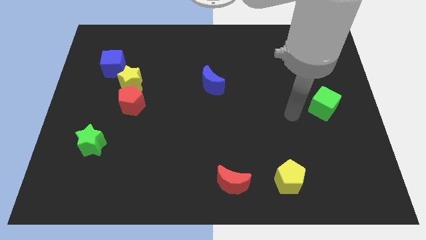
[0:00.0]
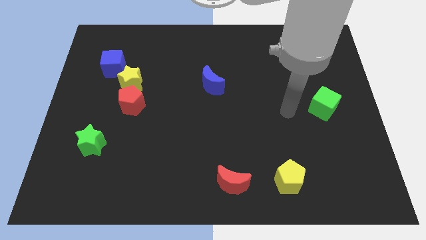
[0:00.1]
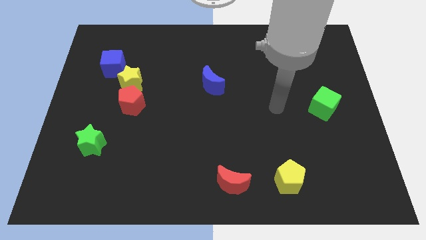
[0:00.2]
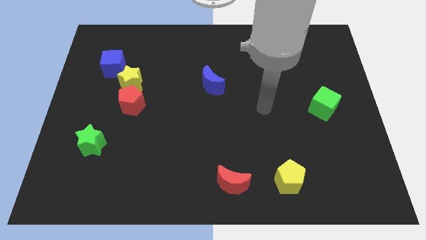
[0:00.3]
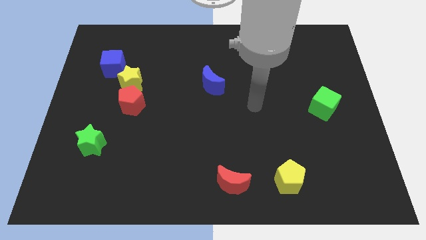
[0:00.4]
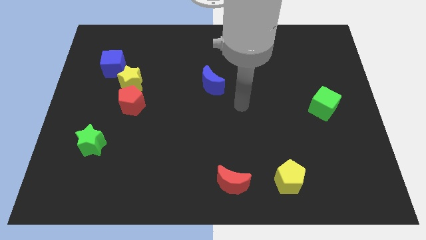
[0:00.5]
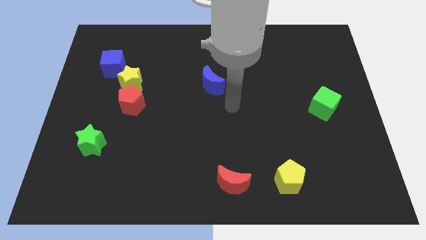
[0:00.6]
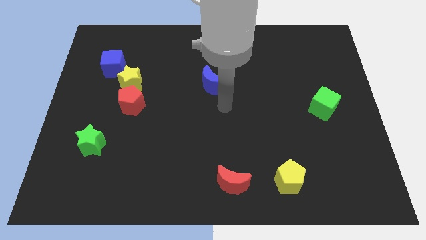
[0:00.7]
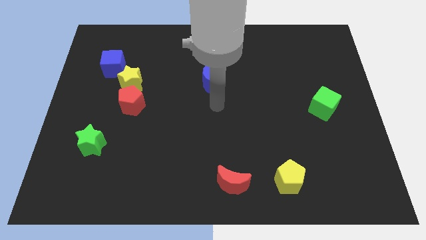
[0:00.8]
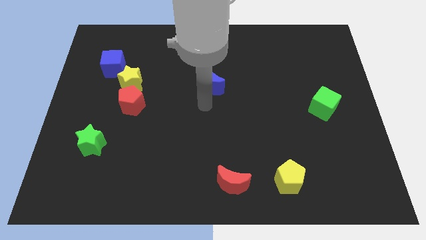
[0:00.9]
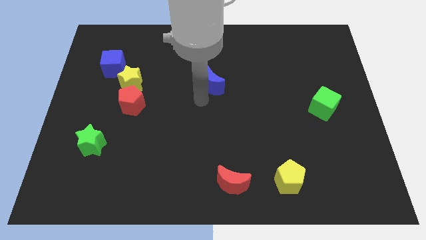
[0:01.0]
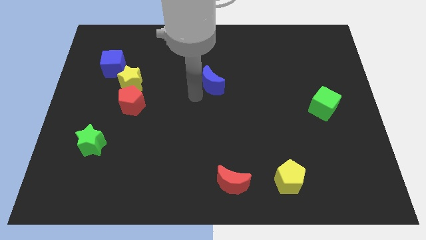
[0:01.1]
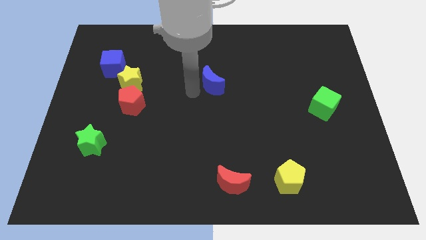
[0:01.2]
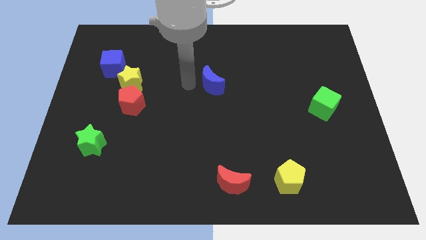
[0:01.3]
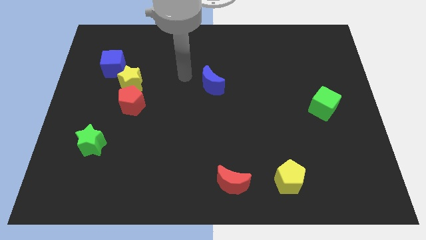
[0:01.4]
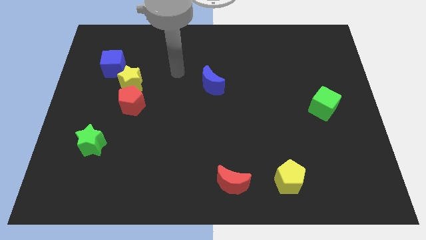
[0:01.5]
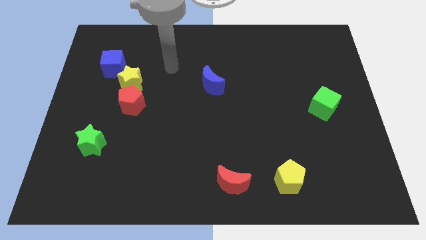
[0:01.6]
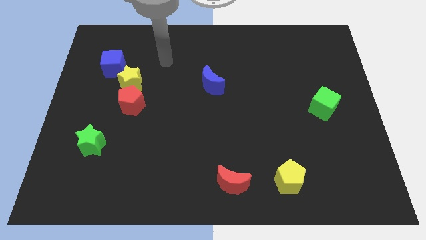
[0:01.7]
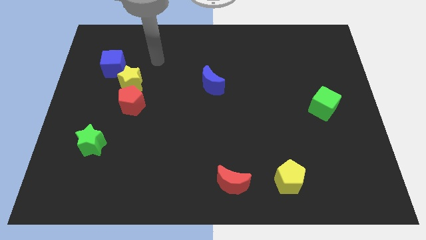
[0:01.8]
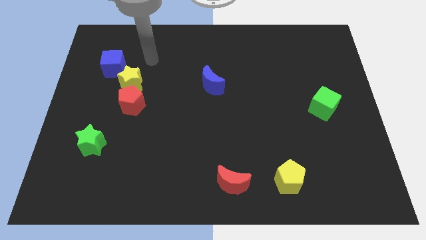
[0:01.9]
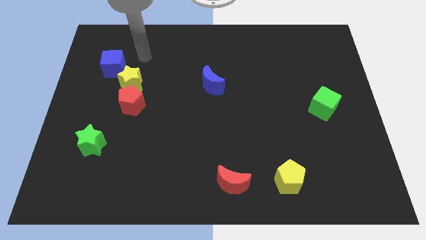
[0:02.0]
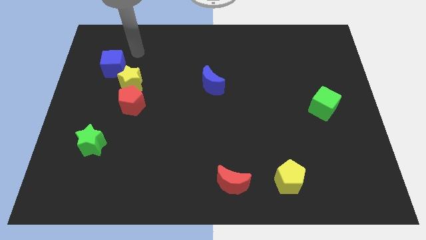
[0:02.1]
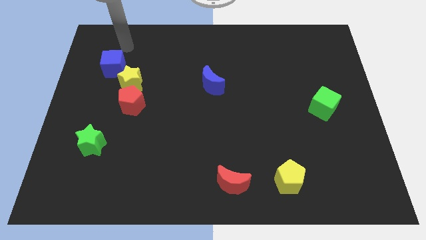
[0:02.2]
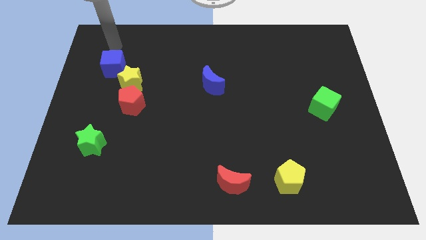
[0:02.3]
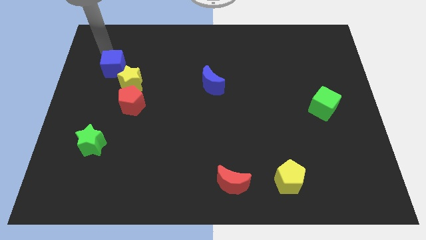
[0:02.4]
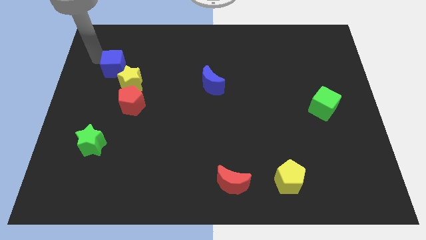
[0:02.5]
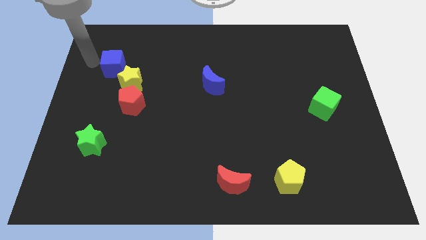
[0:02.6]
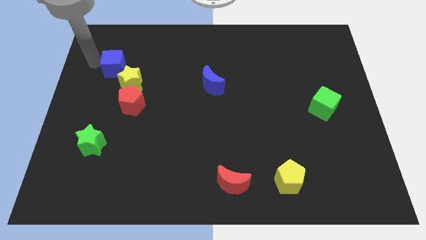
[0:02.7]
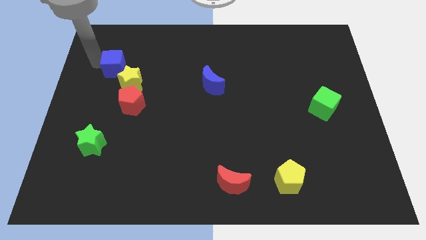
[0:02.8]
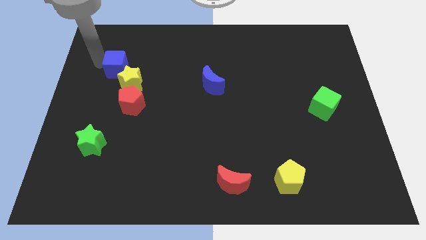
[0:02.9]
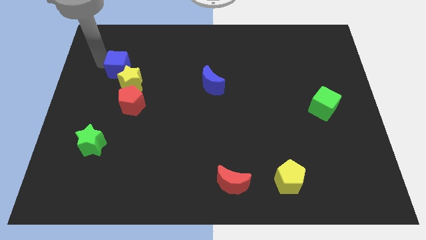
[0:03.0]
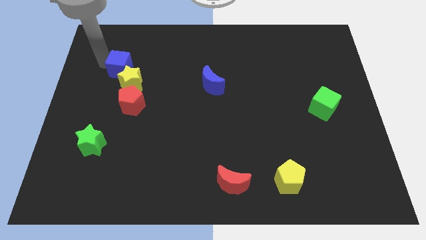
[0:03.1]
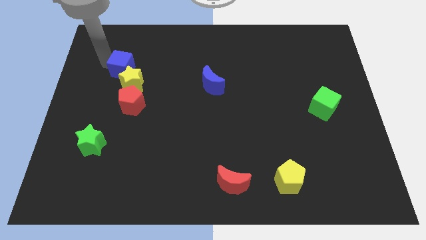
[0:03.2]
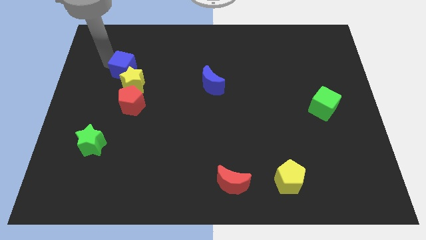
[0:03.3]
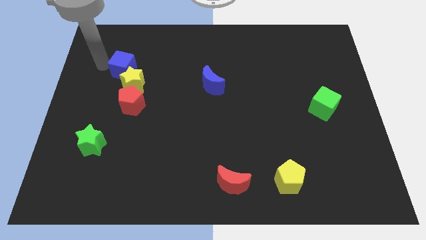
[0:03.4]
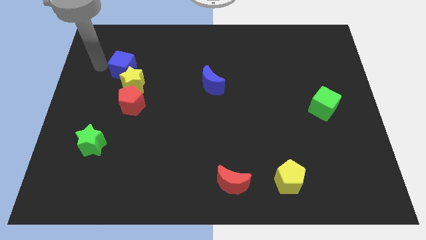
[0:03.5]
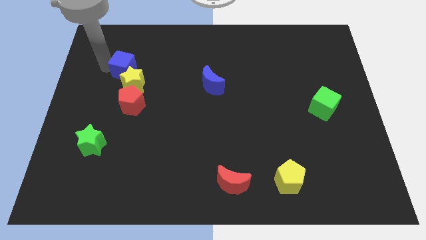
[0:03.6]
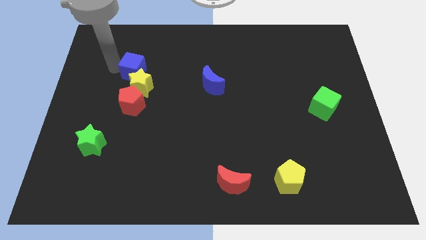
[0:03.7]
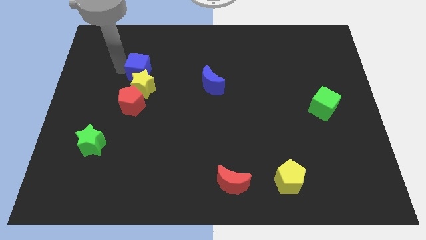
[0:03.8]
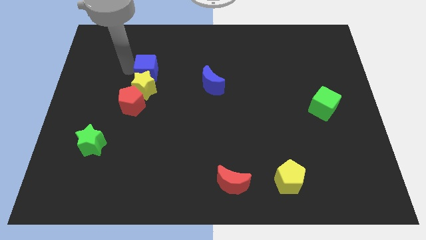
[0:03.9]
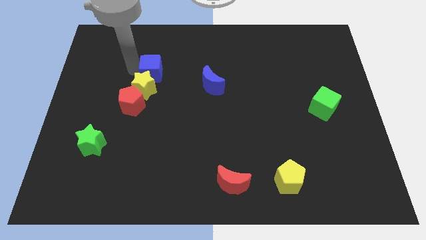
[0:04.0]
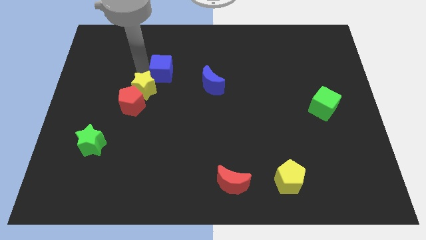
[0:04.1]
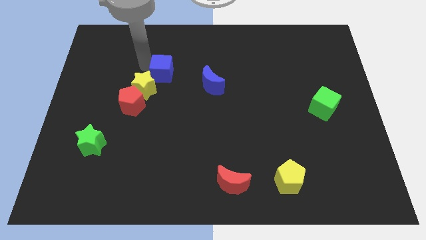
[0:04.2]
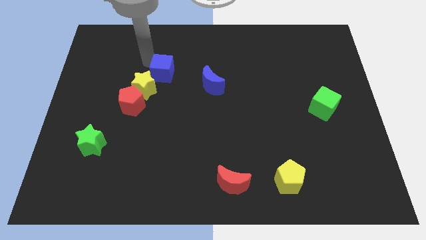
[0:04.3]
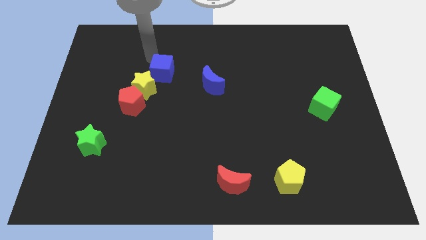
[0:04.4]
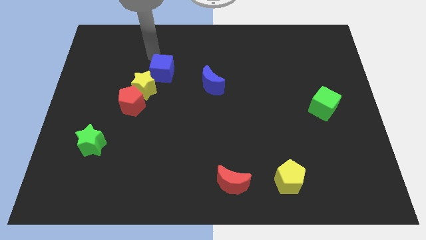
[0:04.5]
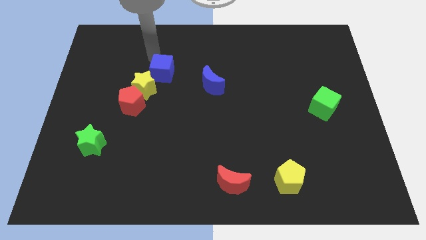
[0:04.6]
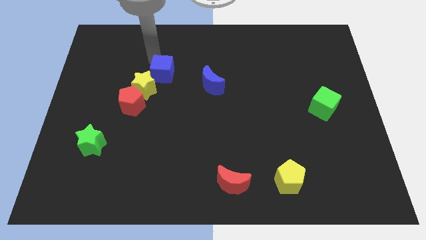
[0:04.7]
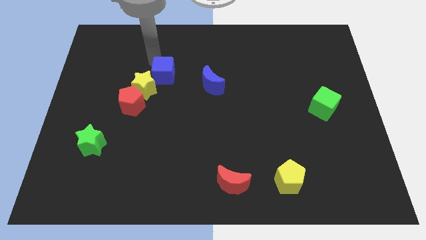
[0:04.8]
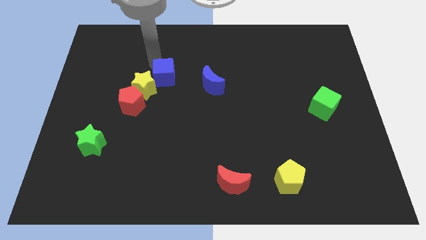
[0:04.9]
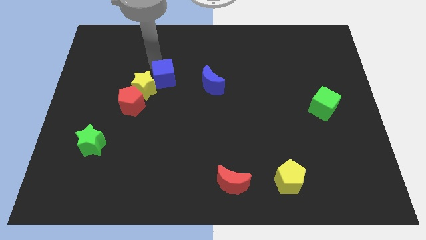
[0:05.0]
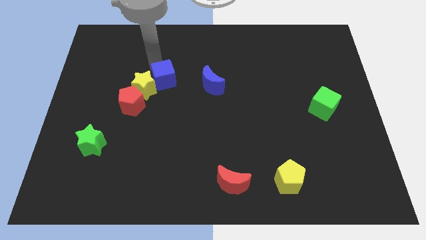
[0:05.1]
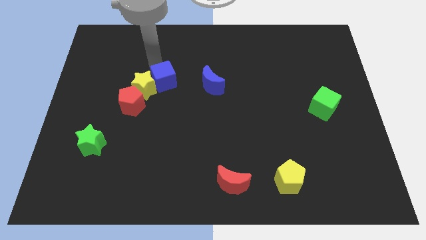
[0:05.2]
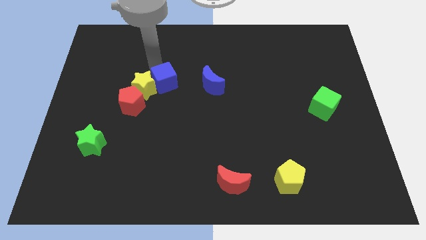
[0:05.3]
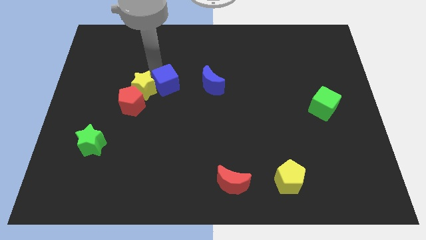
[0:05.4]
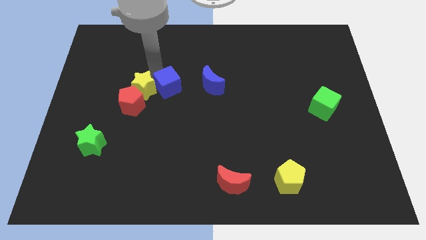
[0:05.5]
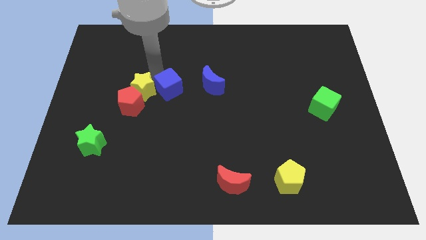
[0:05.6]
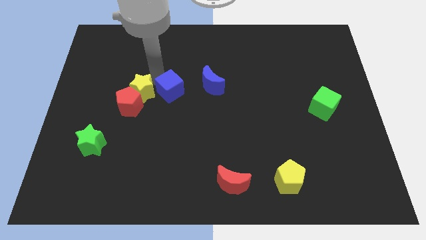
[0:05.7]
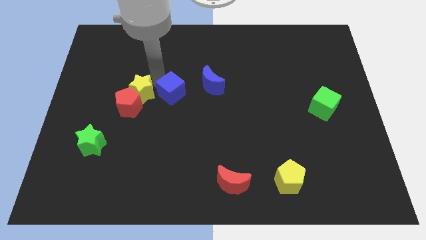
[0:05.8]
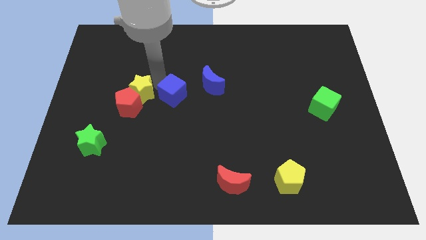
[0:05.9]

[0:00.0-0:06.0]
slide the blue cube to the bottom left of the blue moon

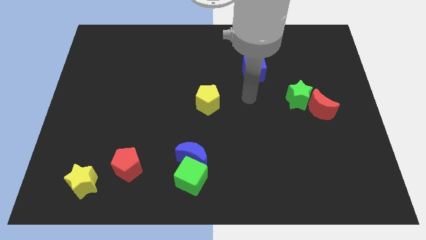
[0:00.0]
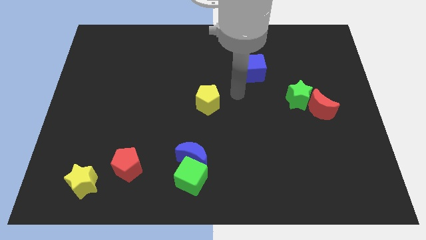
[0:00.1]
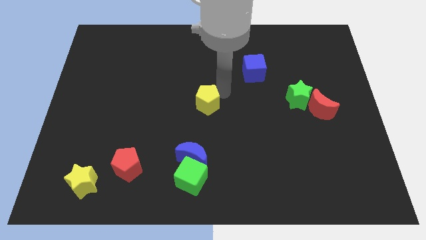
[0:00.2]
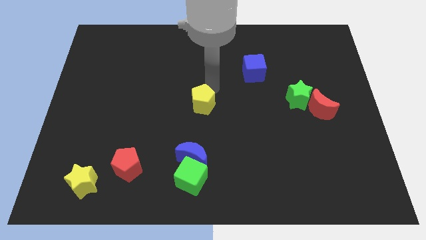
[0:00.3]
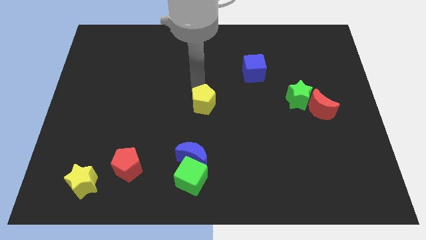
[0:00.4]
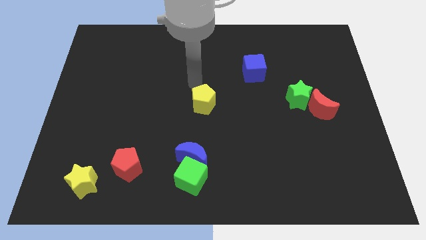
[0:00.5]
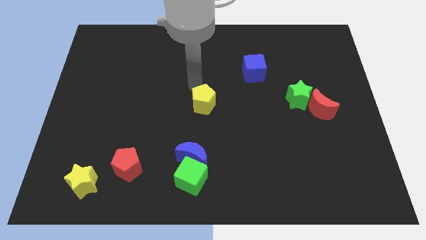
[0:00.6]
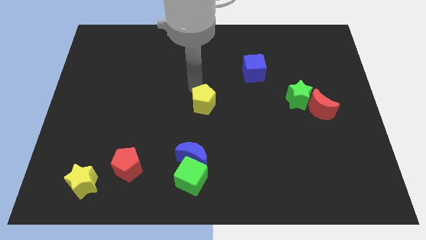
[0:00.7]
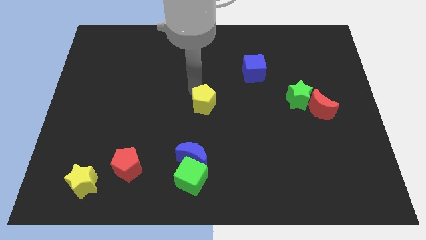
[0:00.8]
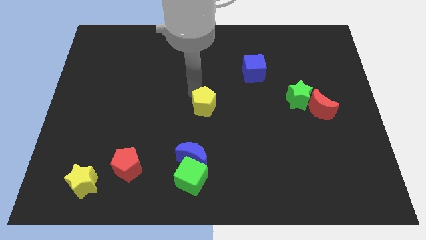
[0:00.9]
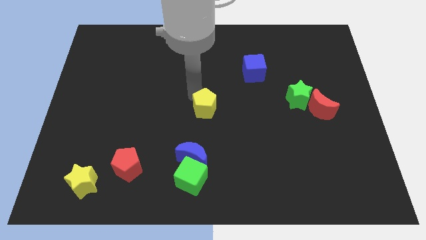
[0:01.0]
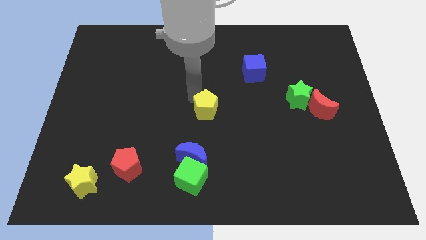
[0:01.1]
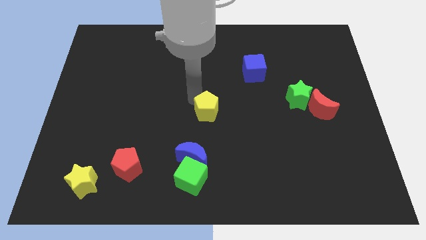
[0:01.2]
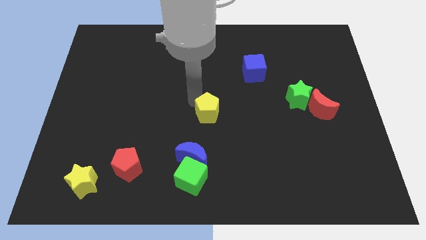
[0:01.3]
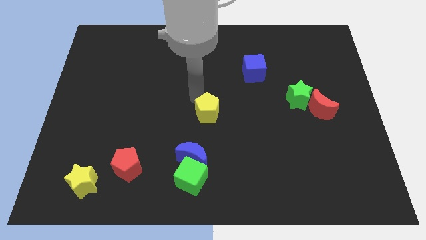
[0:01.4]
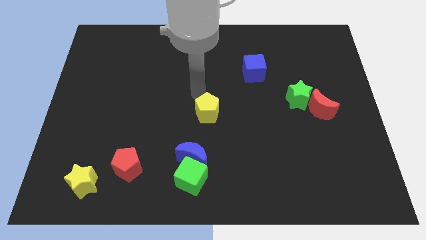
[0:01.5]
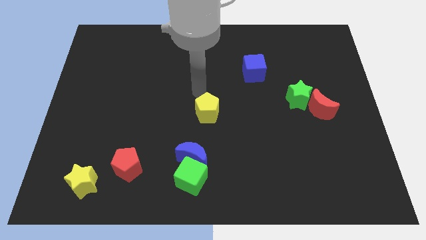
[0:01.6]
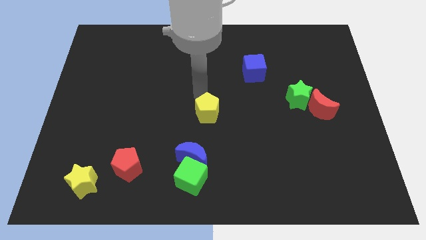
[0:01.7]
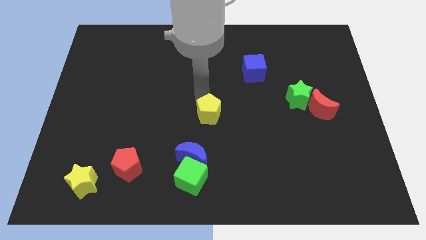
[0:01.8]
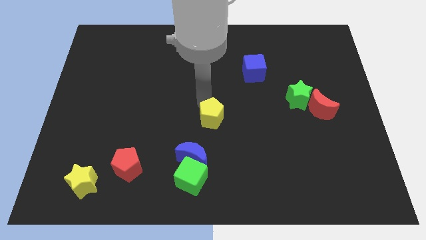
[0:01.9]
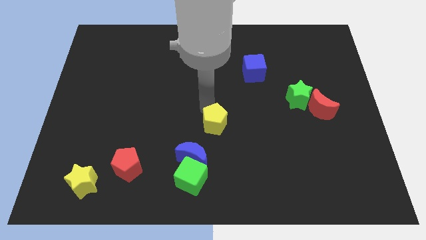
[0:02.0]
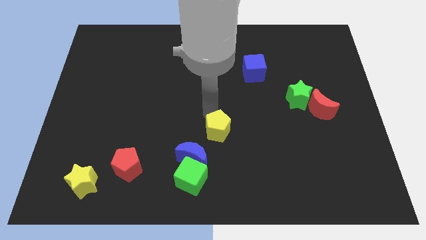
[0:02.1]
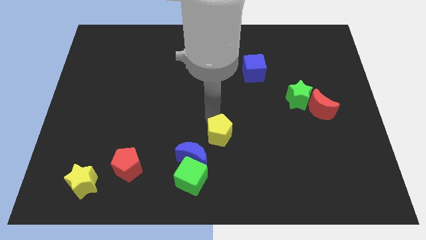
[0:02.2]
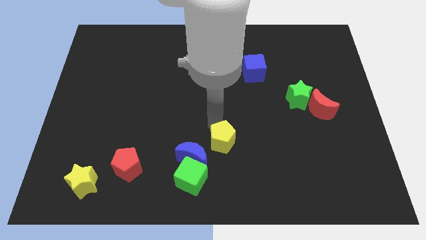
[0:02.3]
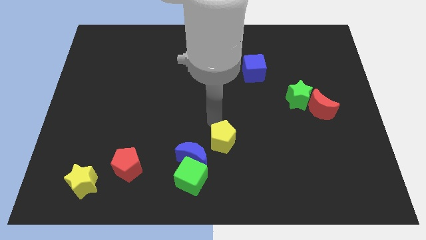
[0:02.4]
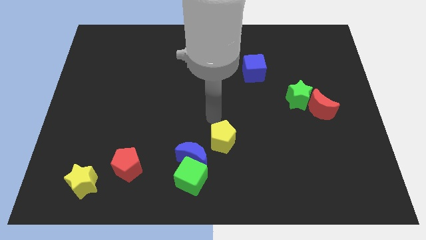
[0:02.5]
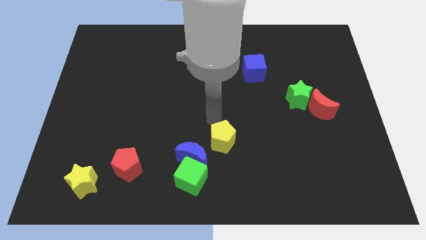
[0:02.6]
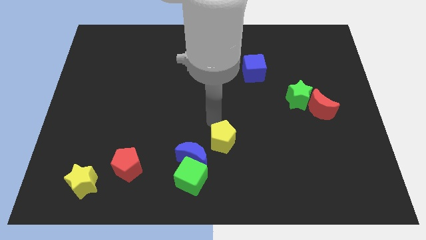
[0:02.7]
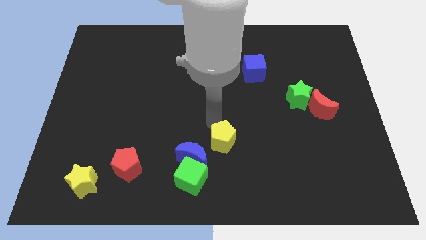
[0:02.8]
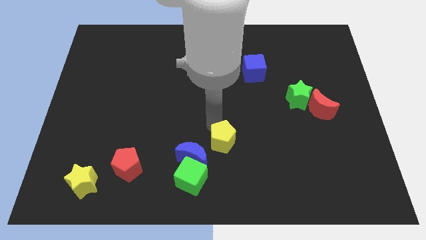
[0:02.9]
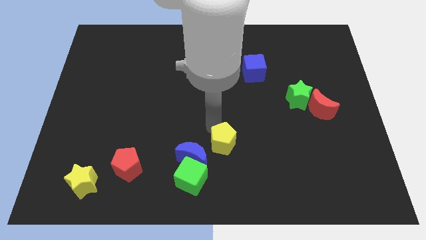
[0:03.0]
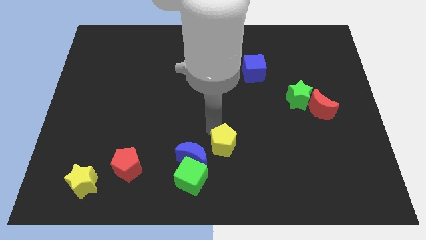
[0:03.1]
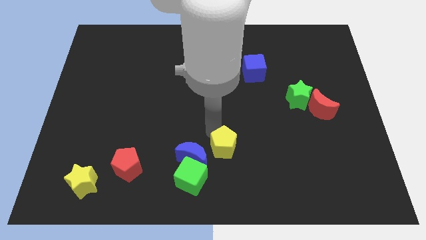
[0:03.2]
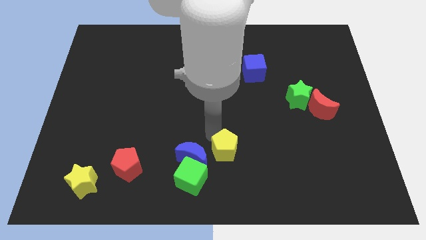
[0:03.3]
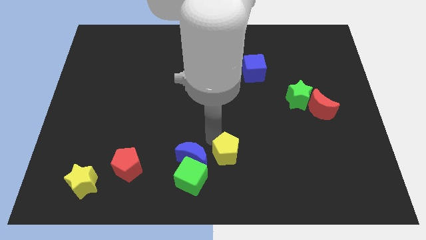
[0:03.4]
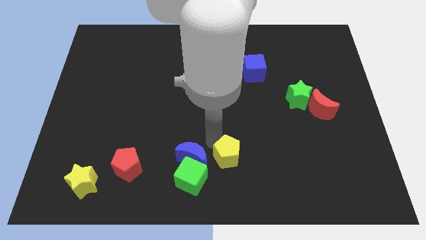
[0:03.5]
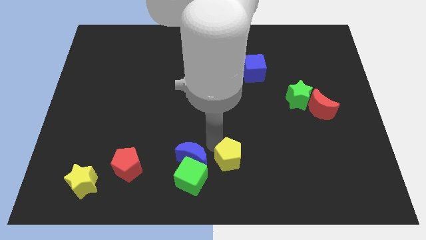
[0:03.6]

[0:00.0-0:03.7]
move the yellow pentagon just right of the green cube
